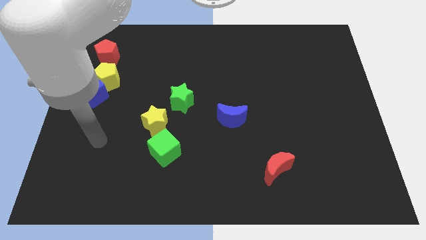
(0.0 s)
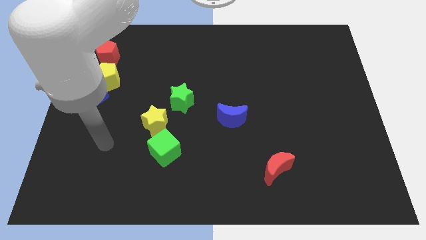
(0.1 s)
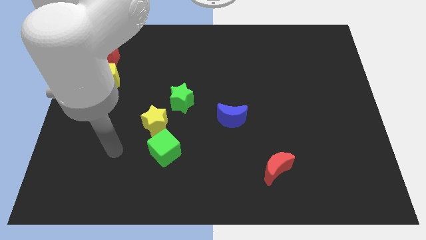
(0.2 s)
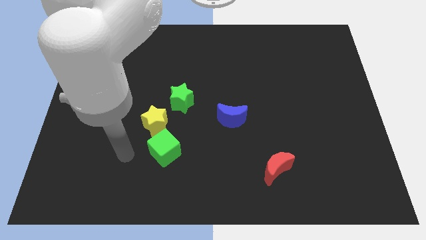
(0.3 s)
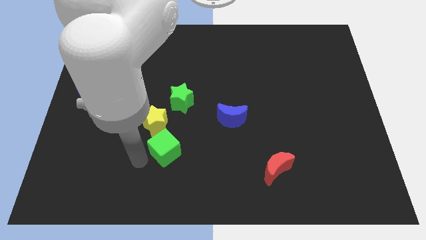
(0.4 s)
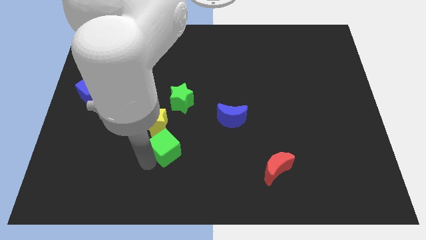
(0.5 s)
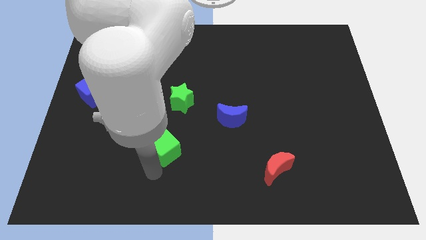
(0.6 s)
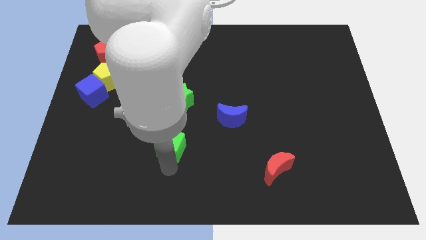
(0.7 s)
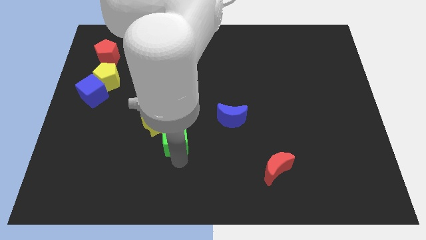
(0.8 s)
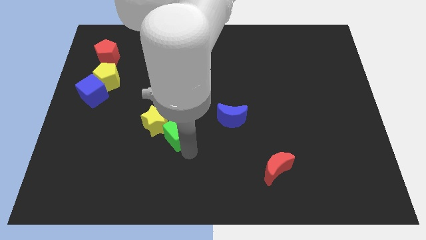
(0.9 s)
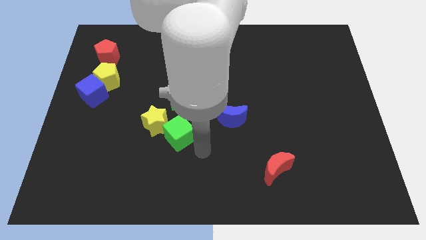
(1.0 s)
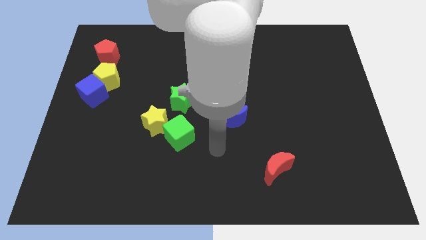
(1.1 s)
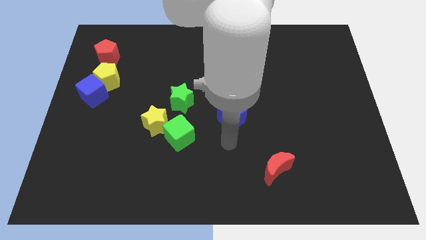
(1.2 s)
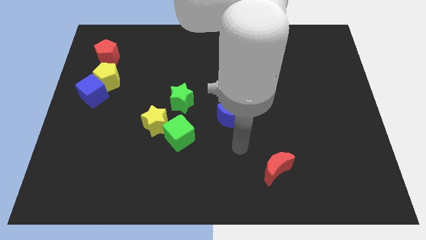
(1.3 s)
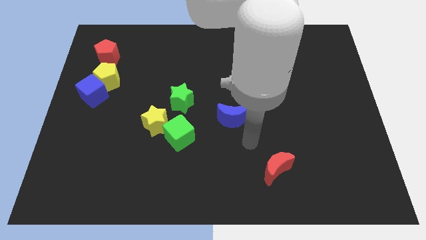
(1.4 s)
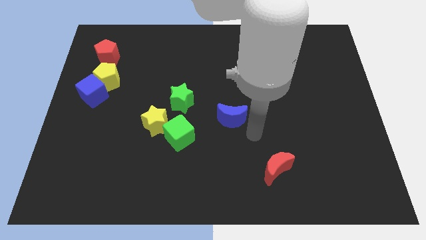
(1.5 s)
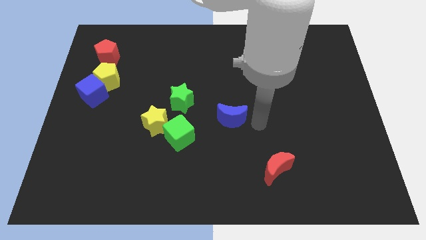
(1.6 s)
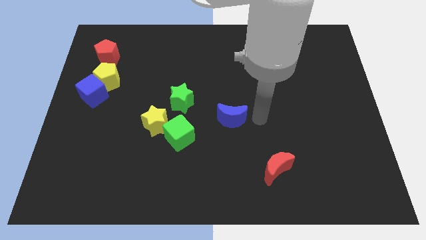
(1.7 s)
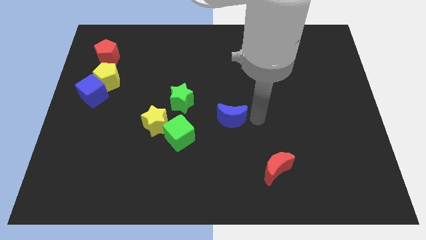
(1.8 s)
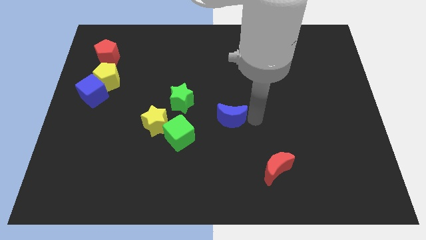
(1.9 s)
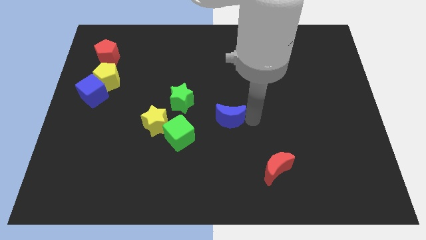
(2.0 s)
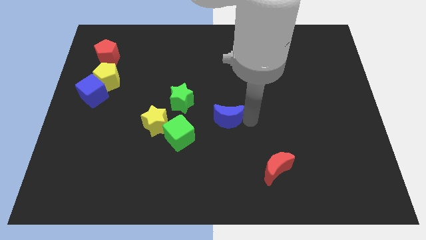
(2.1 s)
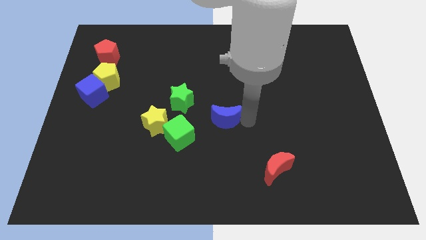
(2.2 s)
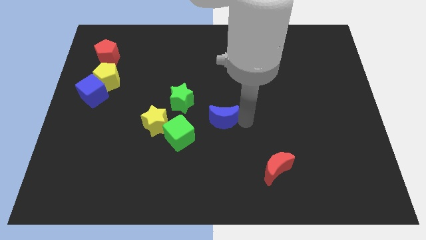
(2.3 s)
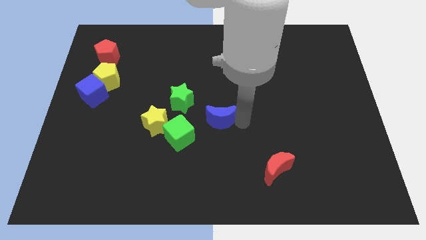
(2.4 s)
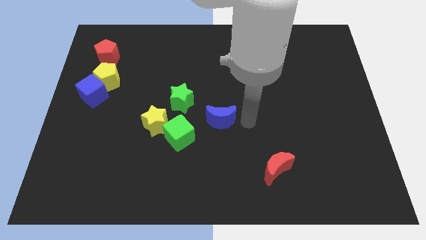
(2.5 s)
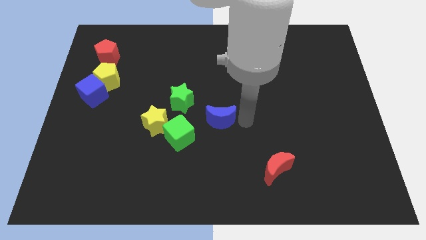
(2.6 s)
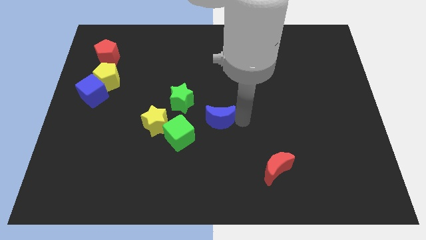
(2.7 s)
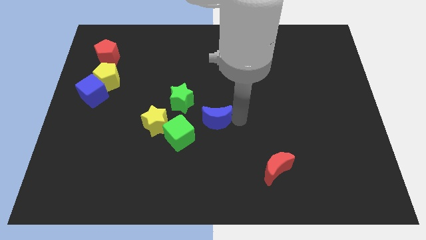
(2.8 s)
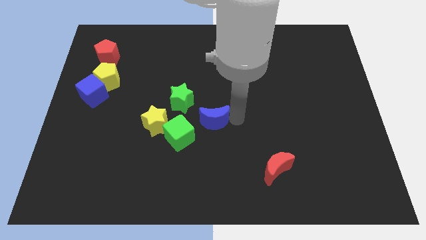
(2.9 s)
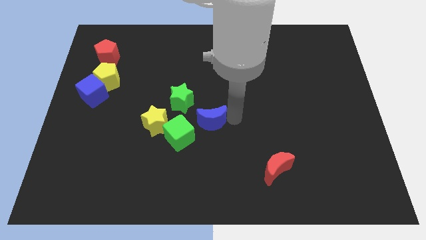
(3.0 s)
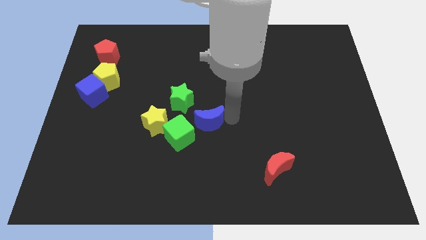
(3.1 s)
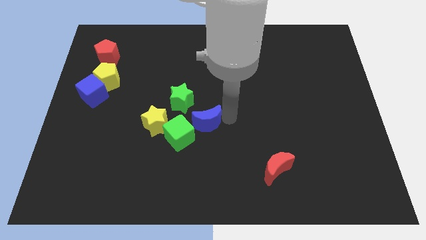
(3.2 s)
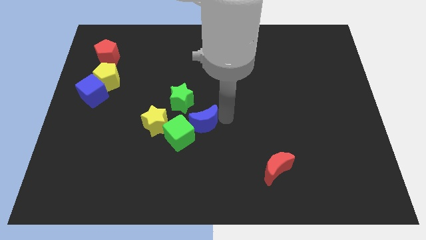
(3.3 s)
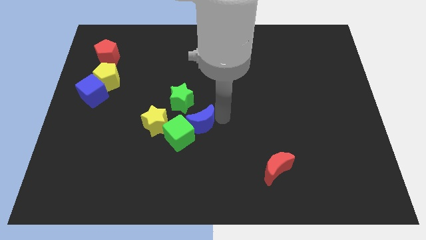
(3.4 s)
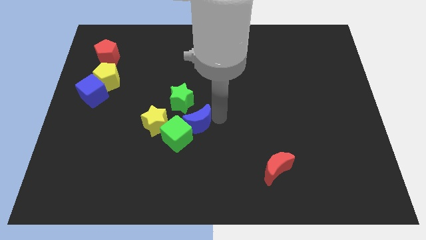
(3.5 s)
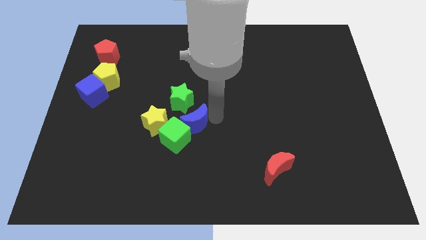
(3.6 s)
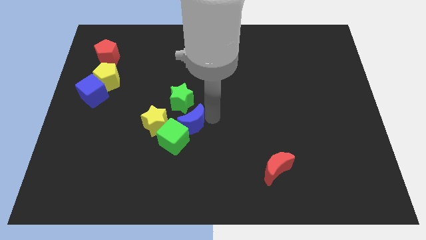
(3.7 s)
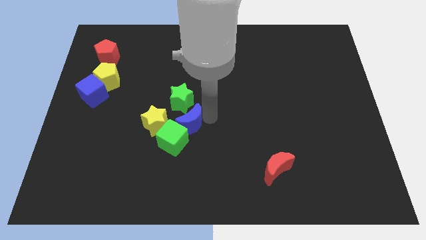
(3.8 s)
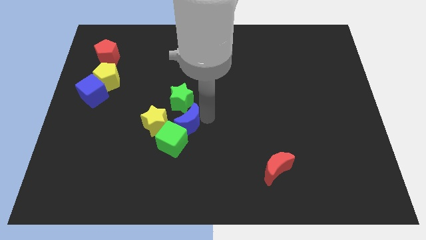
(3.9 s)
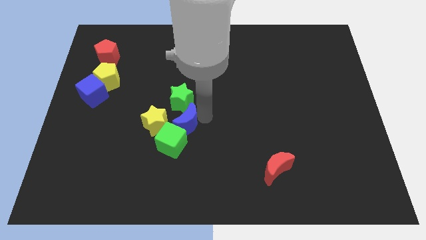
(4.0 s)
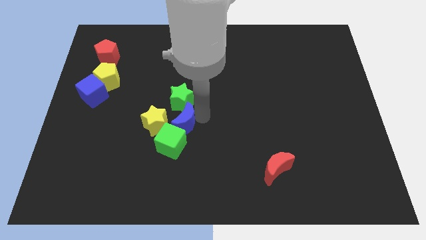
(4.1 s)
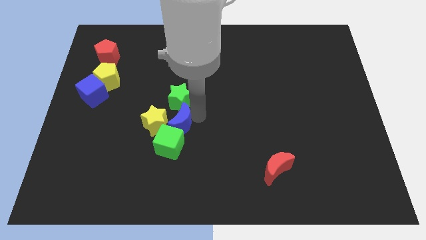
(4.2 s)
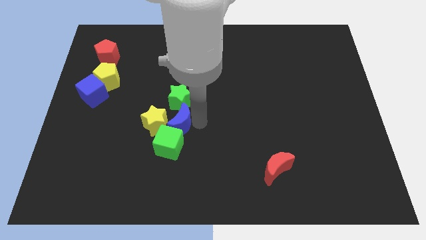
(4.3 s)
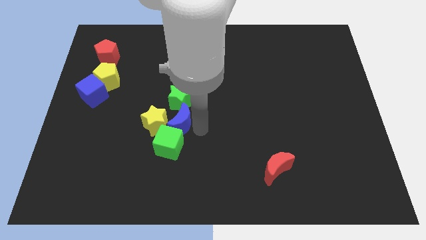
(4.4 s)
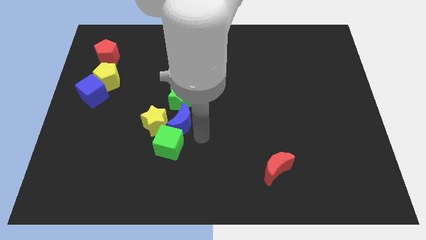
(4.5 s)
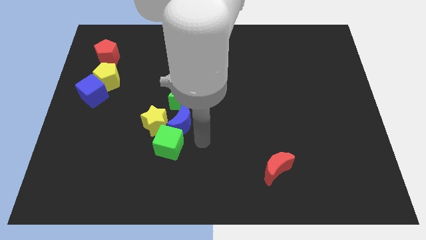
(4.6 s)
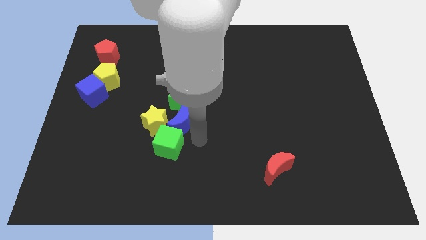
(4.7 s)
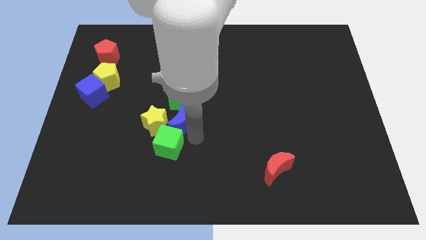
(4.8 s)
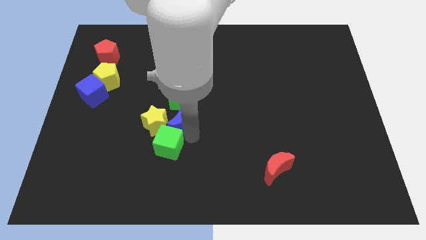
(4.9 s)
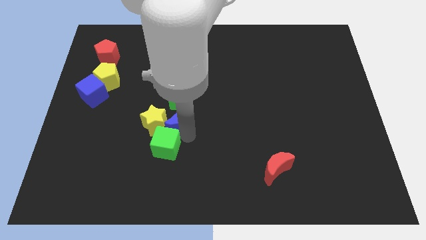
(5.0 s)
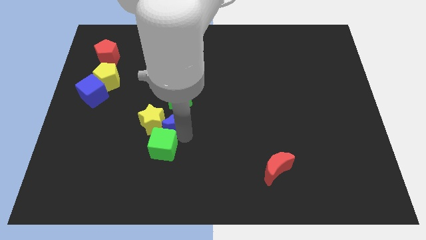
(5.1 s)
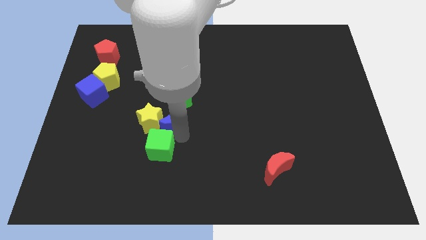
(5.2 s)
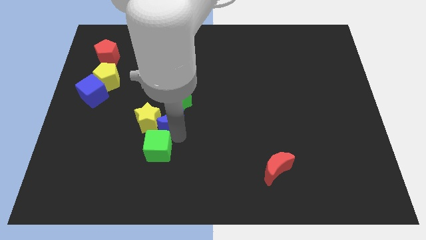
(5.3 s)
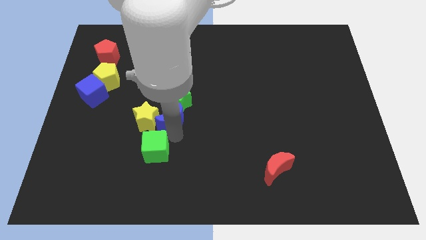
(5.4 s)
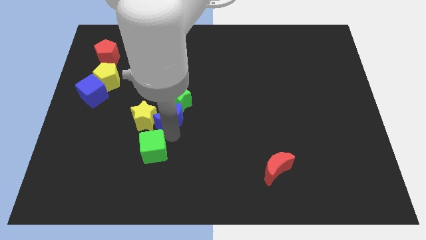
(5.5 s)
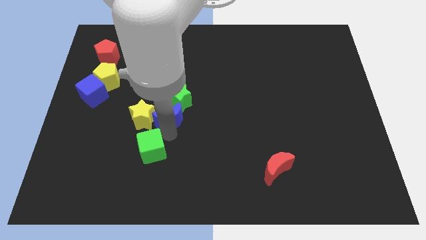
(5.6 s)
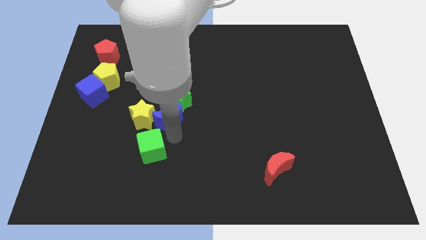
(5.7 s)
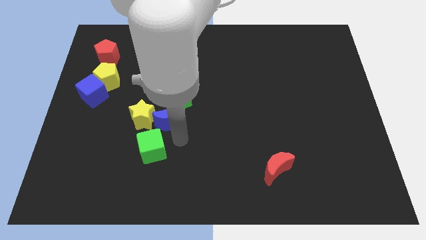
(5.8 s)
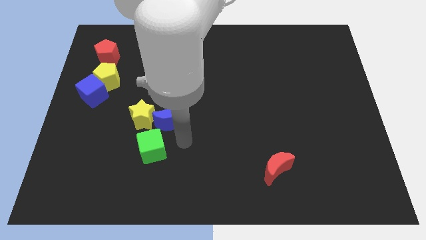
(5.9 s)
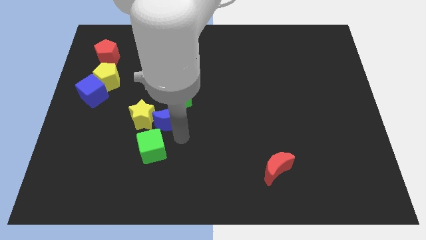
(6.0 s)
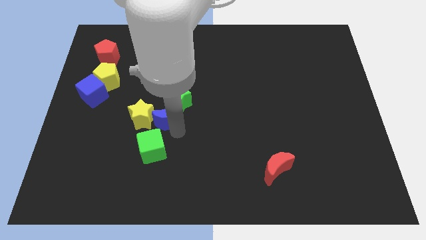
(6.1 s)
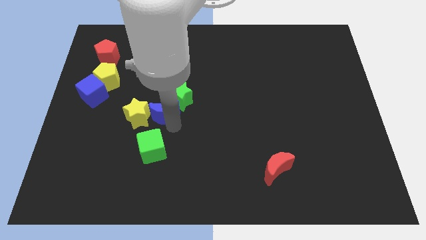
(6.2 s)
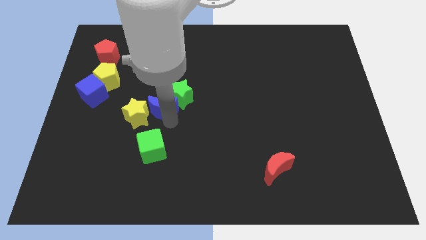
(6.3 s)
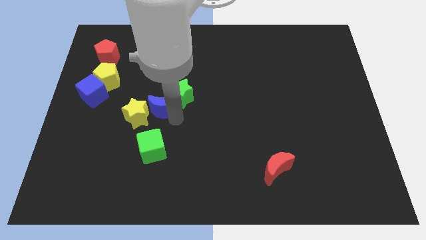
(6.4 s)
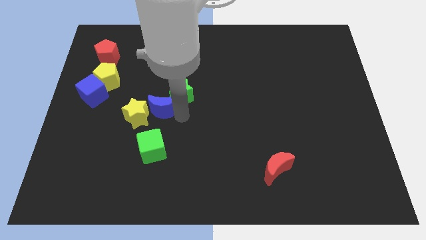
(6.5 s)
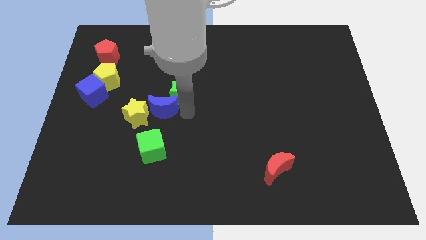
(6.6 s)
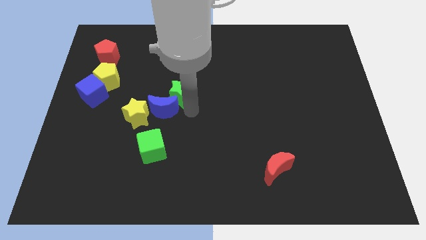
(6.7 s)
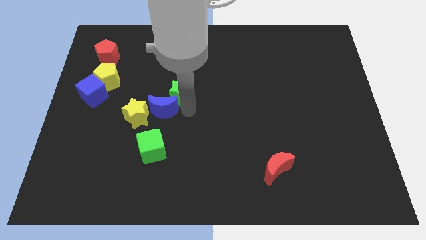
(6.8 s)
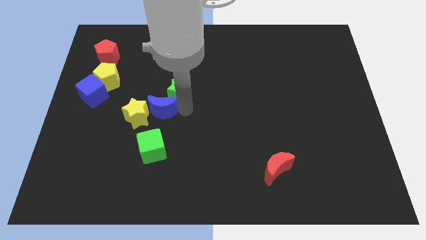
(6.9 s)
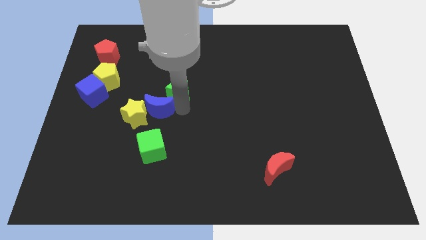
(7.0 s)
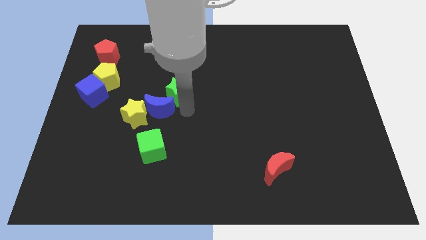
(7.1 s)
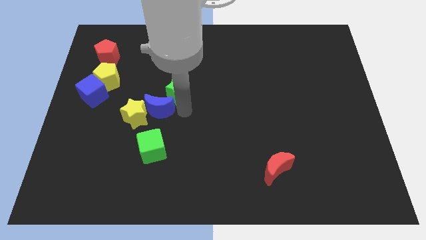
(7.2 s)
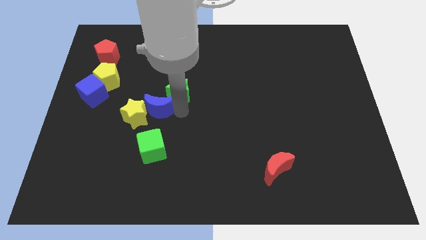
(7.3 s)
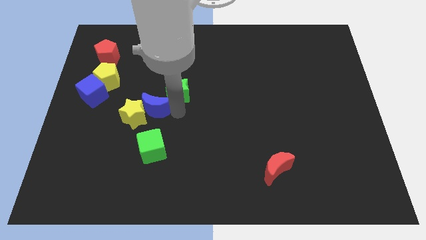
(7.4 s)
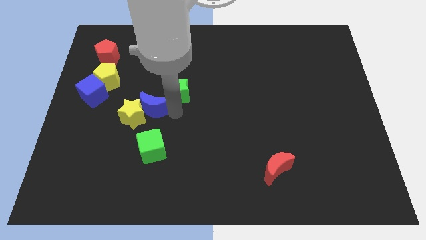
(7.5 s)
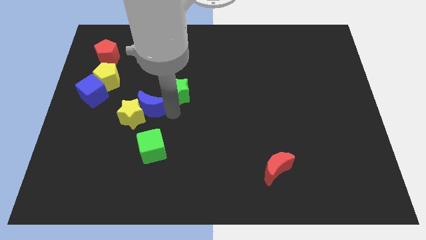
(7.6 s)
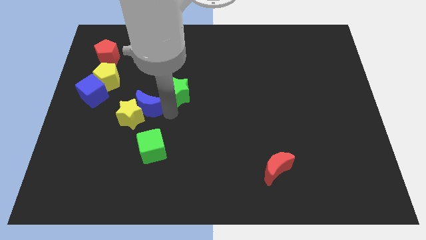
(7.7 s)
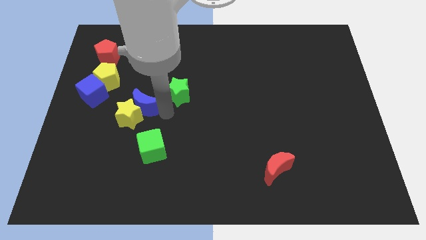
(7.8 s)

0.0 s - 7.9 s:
slide the blue moon to the left

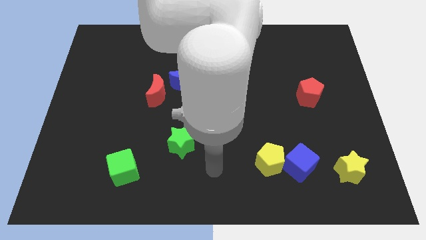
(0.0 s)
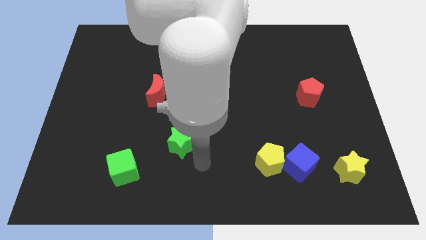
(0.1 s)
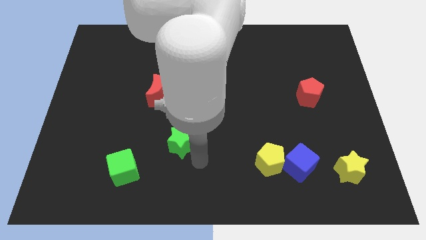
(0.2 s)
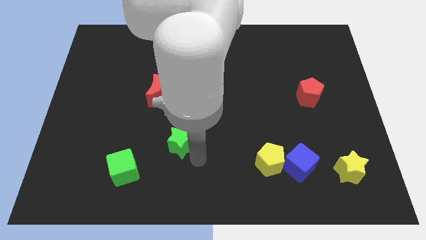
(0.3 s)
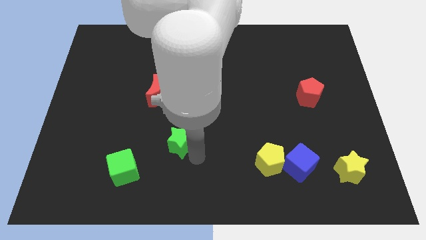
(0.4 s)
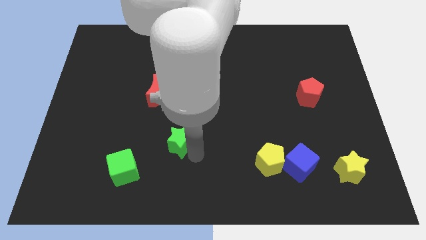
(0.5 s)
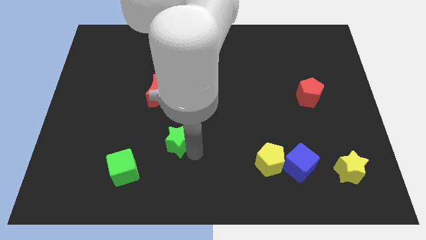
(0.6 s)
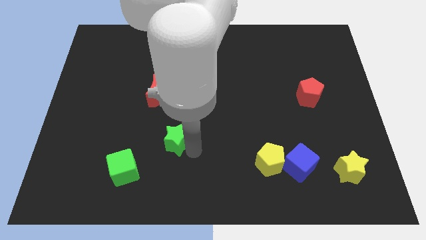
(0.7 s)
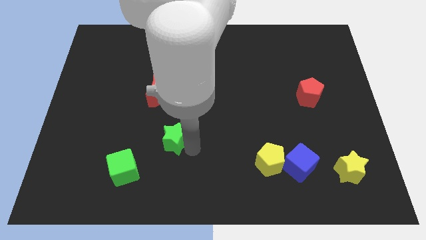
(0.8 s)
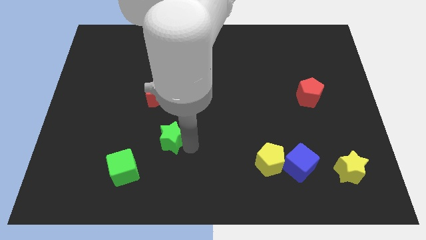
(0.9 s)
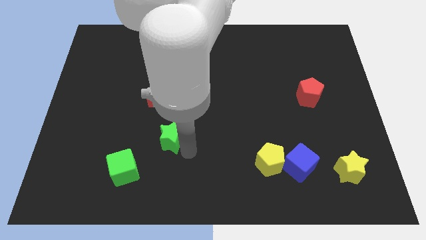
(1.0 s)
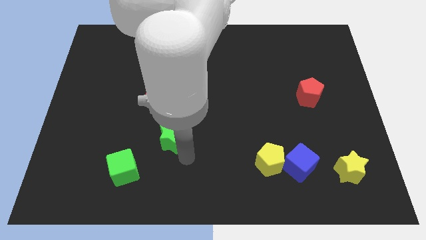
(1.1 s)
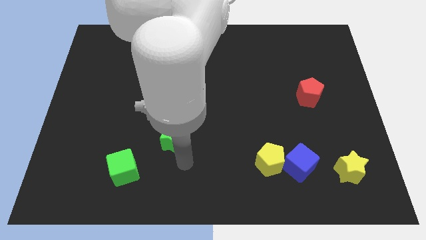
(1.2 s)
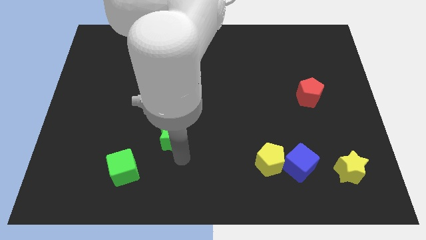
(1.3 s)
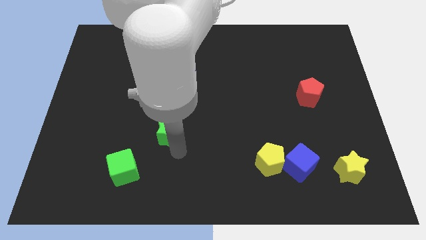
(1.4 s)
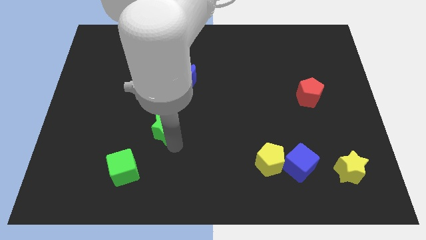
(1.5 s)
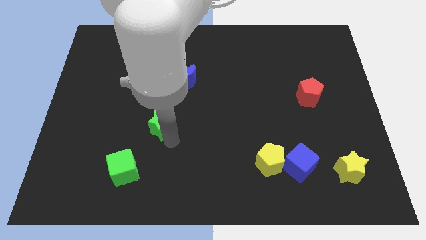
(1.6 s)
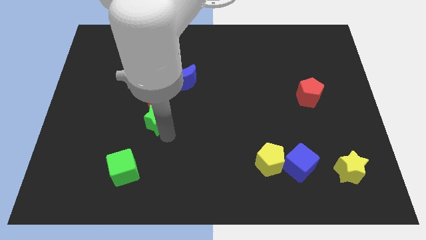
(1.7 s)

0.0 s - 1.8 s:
push the green star a little upwards and then to the left
